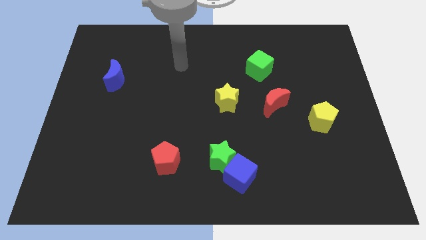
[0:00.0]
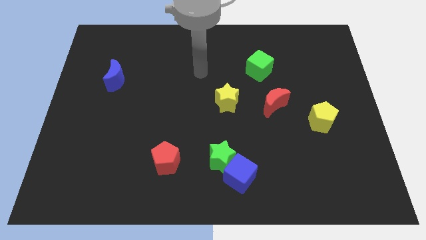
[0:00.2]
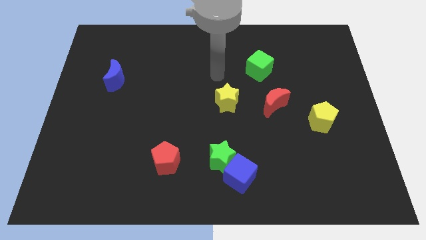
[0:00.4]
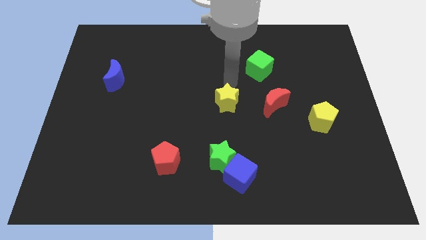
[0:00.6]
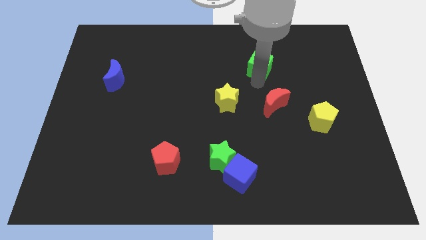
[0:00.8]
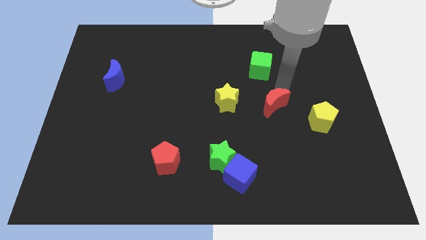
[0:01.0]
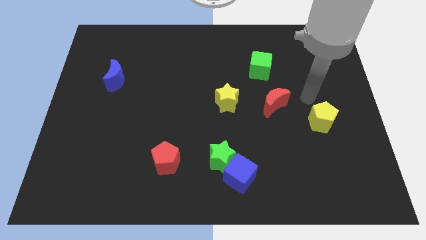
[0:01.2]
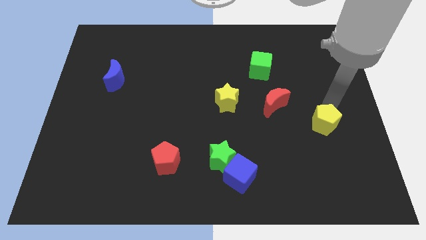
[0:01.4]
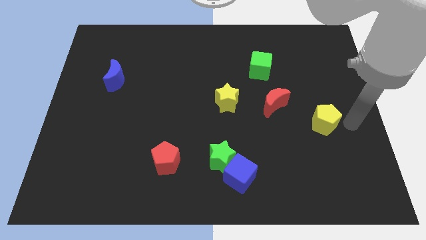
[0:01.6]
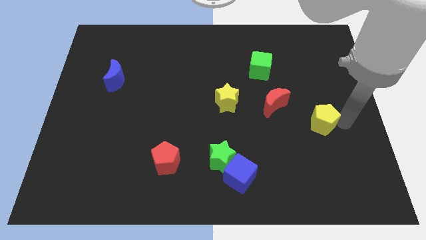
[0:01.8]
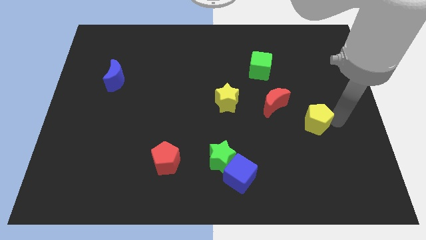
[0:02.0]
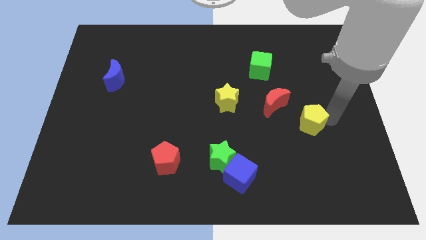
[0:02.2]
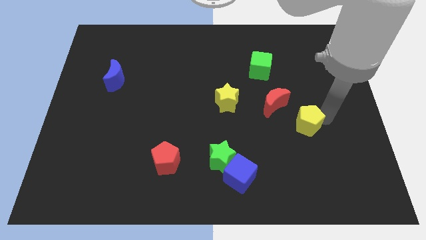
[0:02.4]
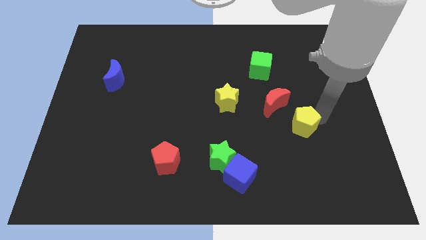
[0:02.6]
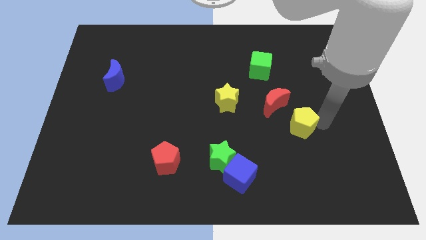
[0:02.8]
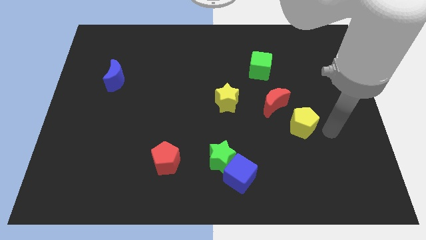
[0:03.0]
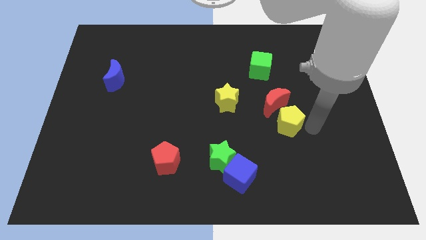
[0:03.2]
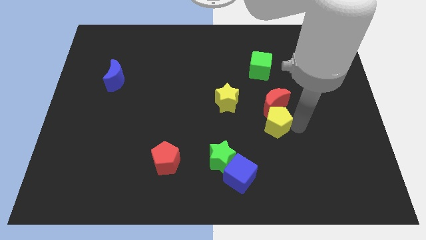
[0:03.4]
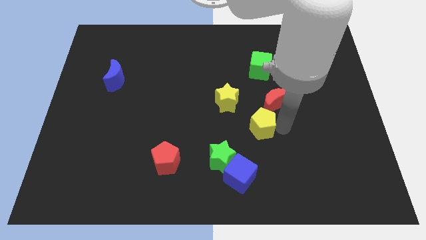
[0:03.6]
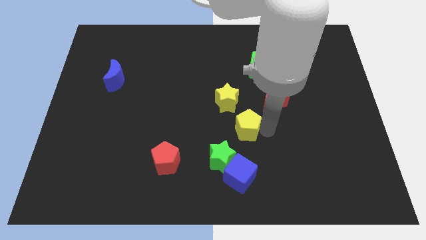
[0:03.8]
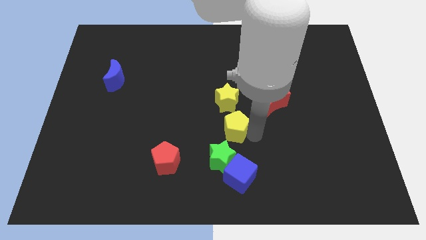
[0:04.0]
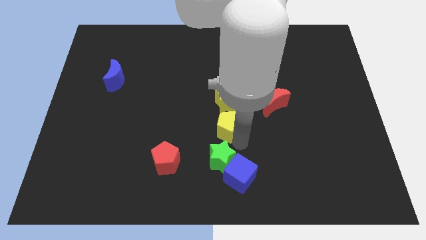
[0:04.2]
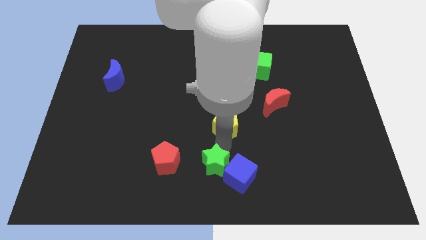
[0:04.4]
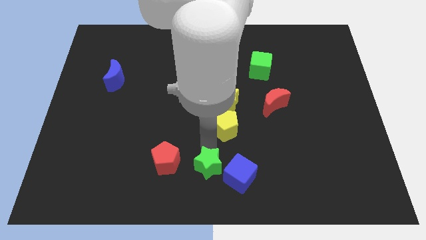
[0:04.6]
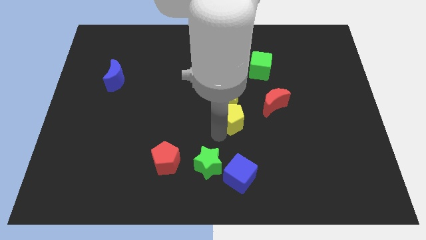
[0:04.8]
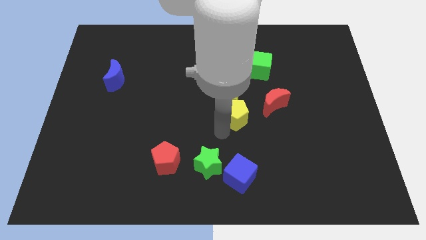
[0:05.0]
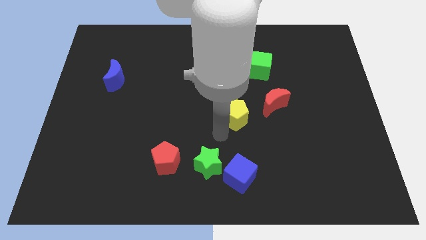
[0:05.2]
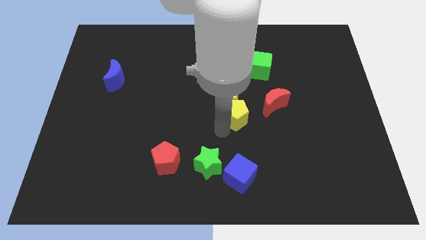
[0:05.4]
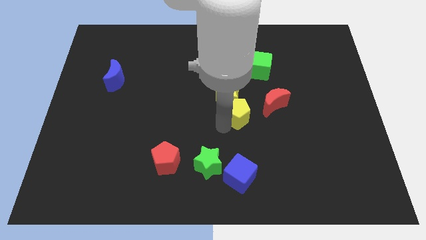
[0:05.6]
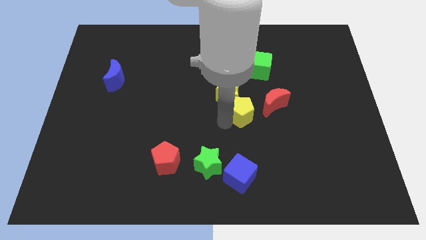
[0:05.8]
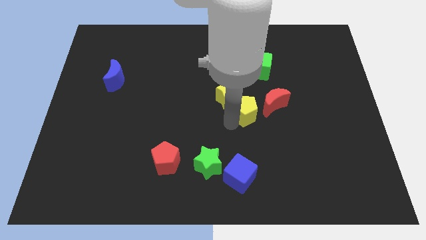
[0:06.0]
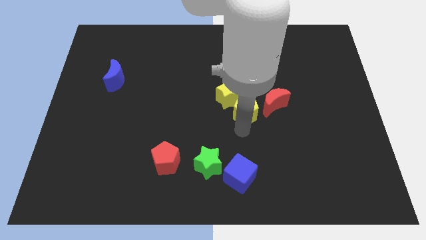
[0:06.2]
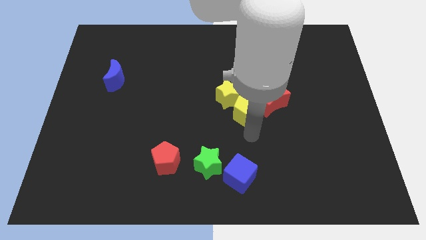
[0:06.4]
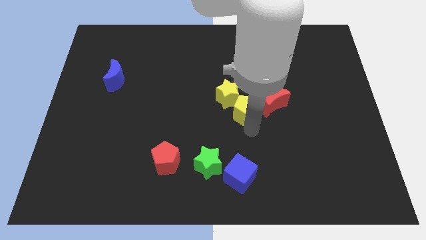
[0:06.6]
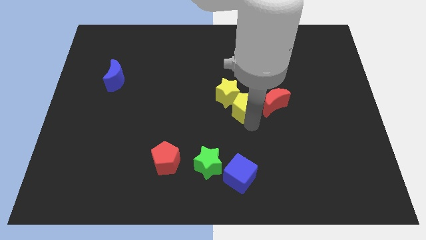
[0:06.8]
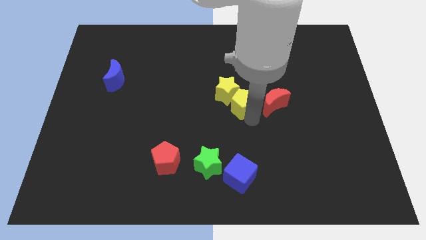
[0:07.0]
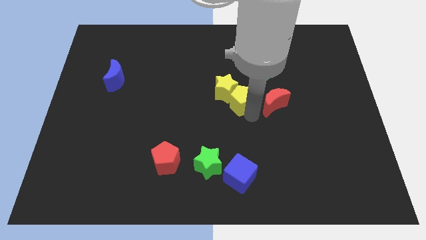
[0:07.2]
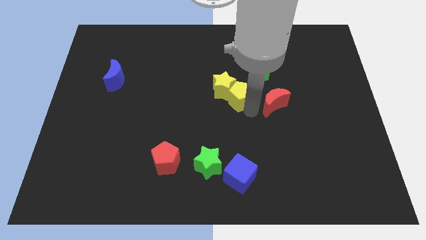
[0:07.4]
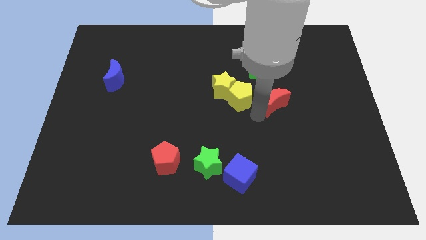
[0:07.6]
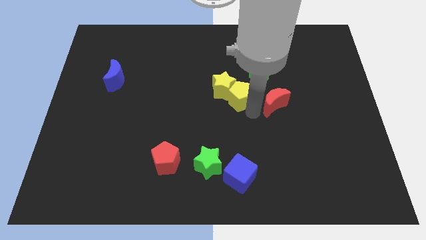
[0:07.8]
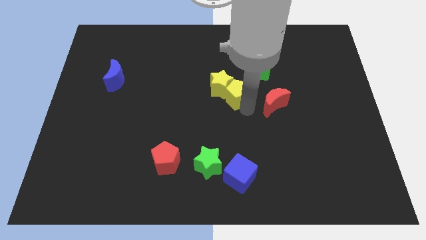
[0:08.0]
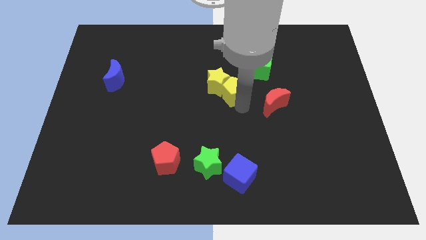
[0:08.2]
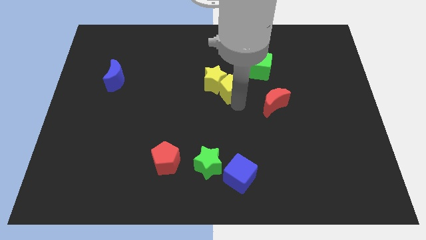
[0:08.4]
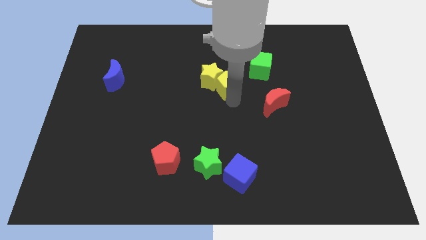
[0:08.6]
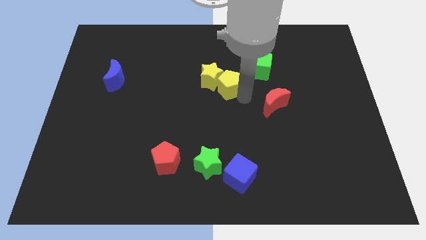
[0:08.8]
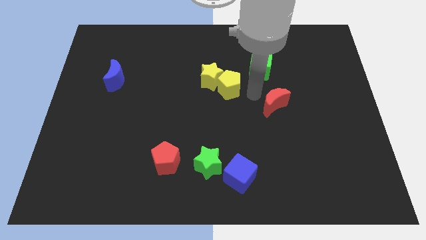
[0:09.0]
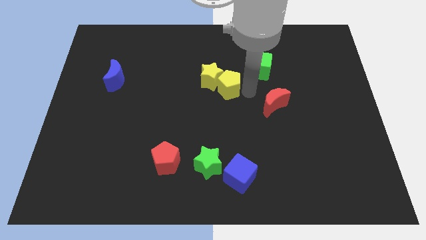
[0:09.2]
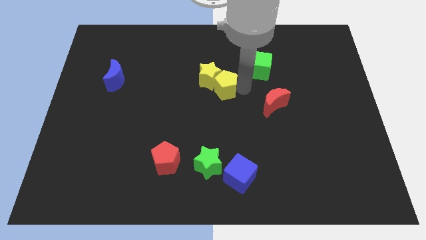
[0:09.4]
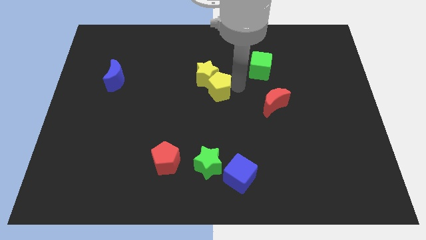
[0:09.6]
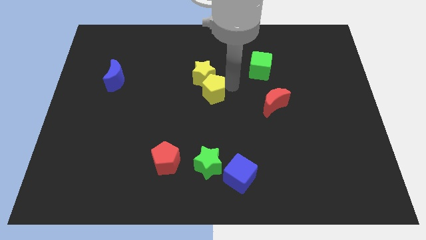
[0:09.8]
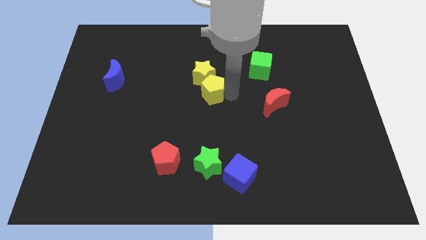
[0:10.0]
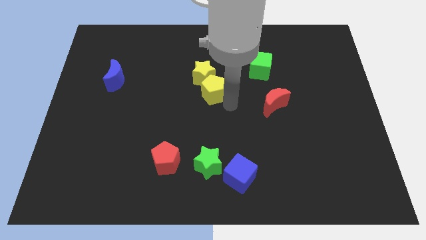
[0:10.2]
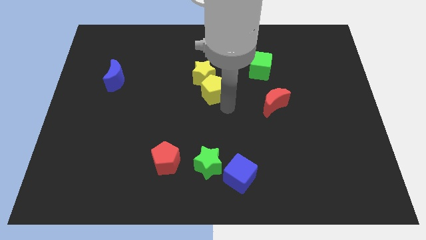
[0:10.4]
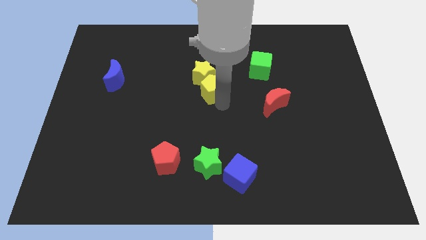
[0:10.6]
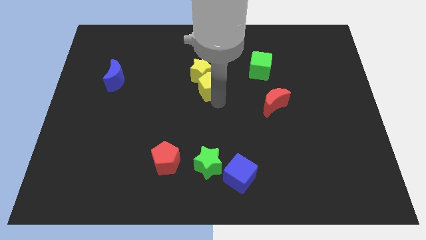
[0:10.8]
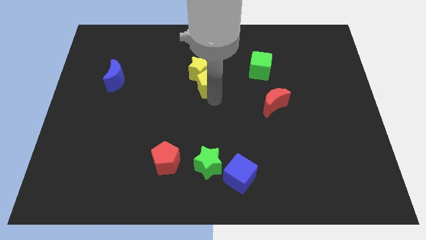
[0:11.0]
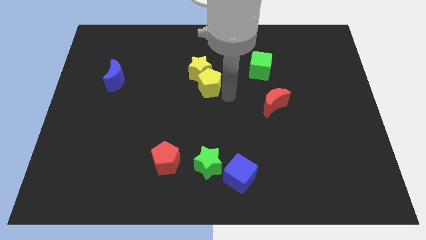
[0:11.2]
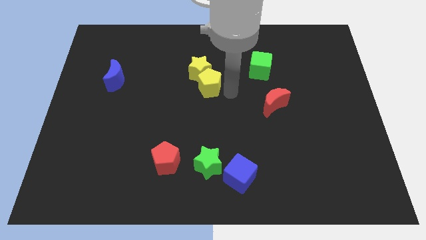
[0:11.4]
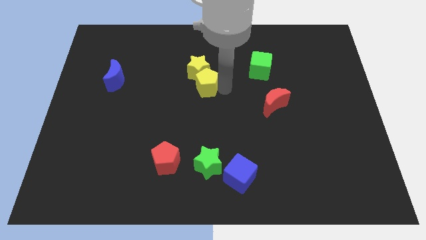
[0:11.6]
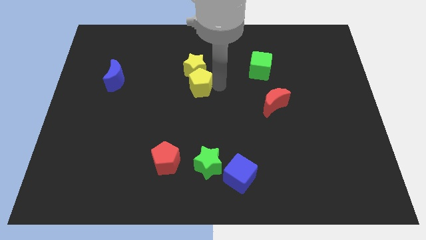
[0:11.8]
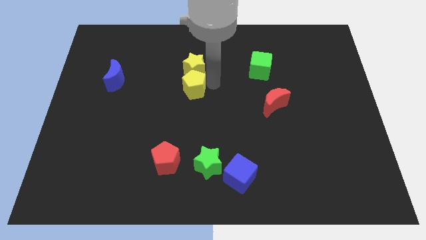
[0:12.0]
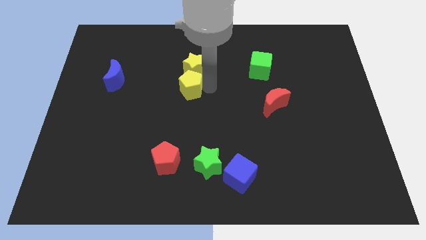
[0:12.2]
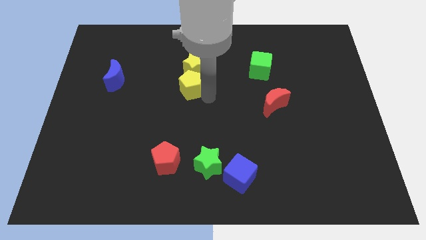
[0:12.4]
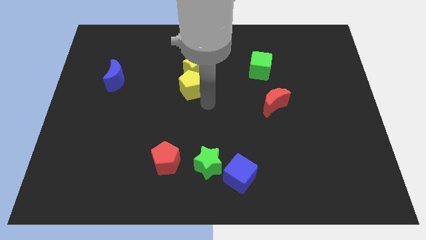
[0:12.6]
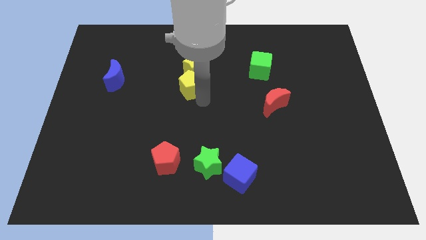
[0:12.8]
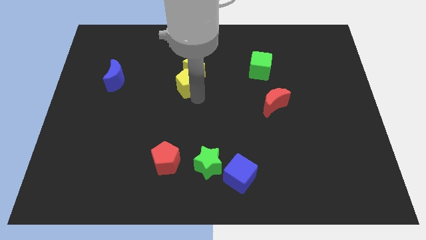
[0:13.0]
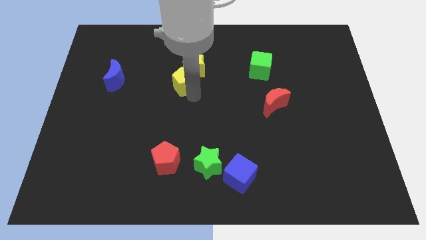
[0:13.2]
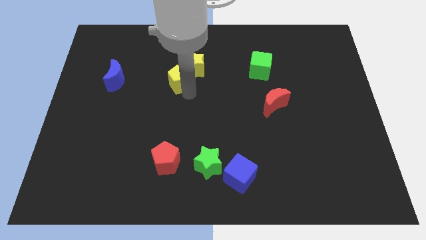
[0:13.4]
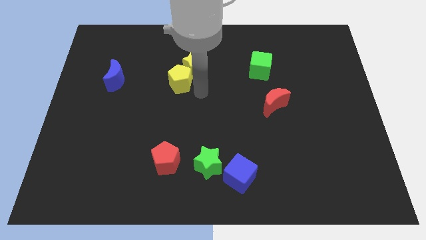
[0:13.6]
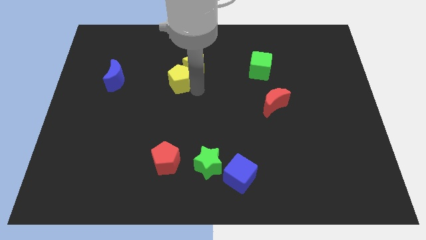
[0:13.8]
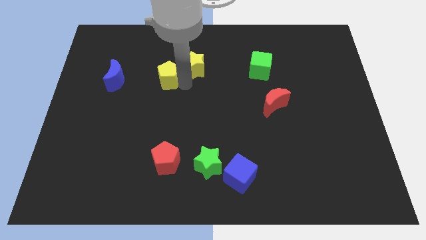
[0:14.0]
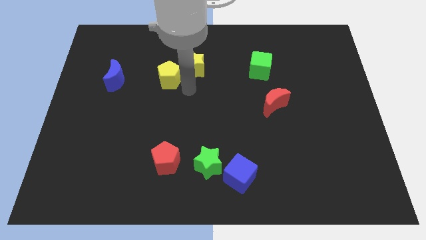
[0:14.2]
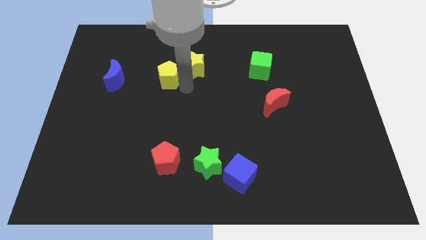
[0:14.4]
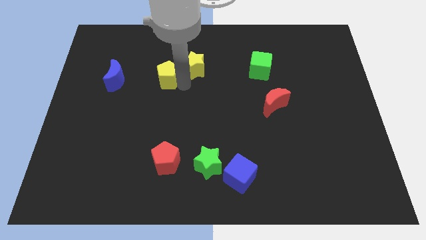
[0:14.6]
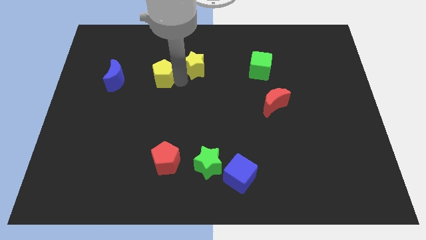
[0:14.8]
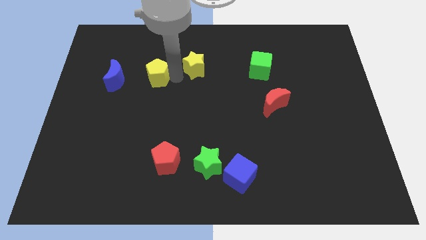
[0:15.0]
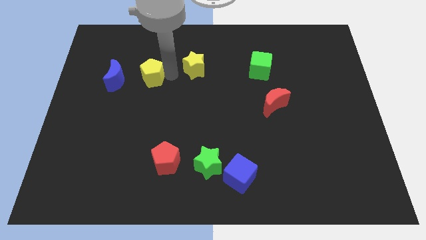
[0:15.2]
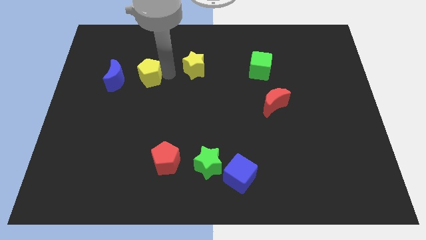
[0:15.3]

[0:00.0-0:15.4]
push the yellow pentagon to the top right side of the blue moon

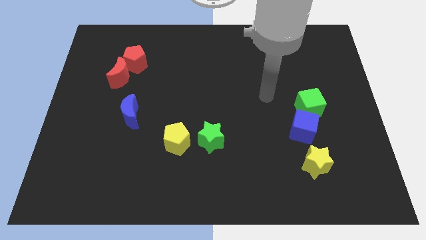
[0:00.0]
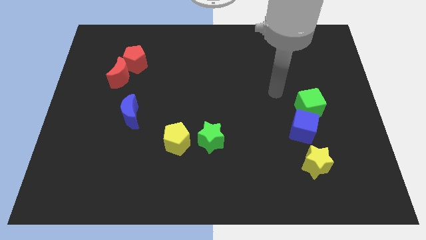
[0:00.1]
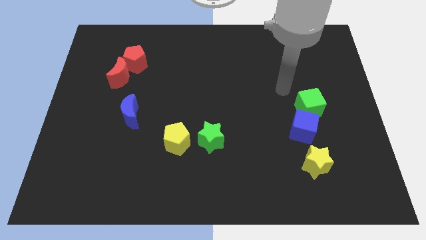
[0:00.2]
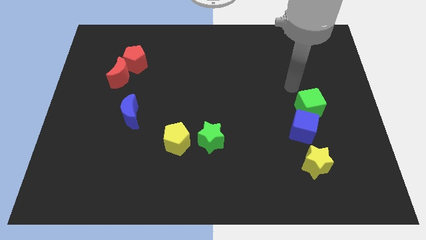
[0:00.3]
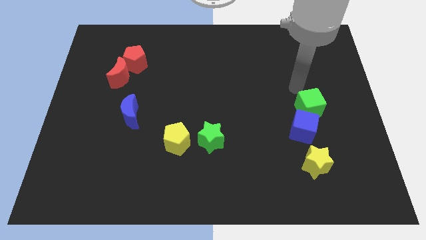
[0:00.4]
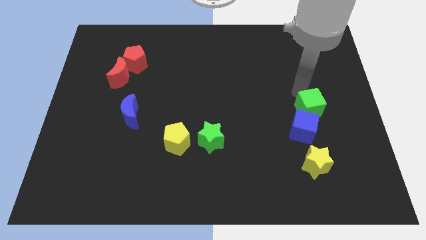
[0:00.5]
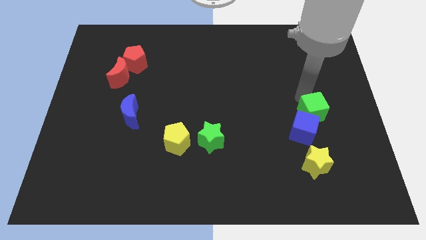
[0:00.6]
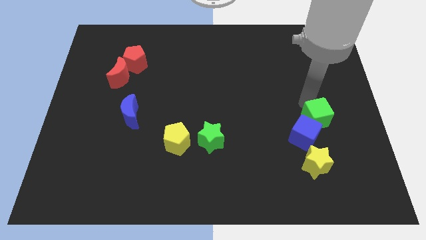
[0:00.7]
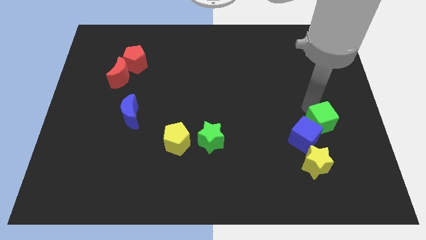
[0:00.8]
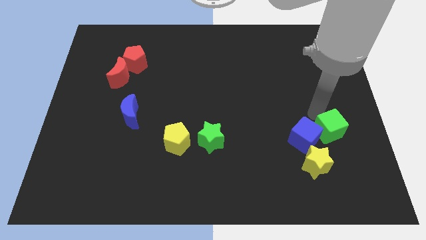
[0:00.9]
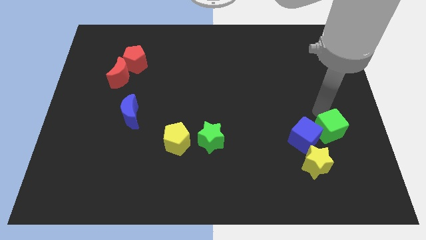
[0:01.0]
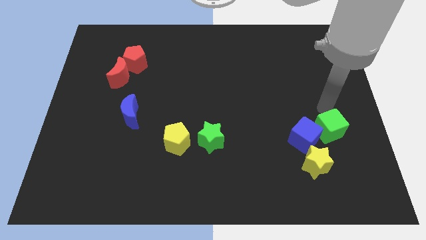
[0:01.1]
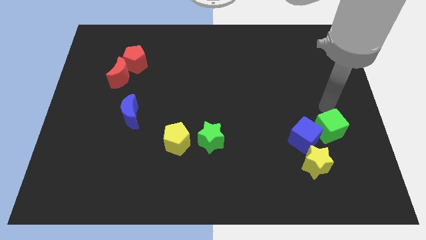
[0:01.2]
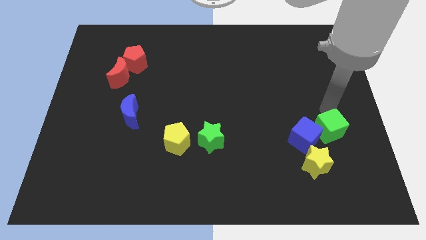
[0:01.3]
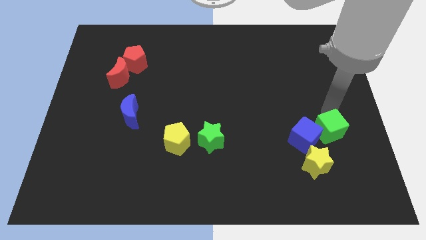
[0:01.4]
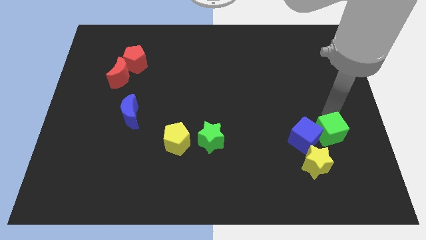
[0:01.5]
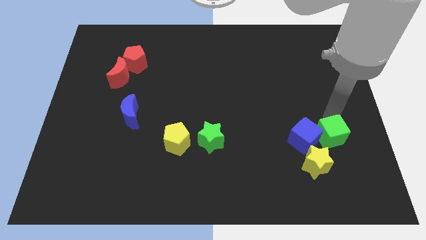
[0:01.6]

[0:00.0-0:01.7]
slide the green cube to the bottom right of the blue cube
